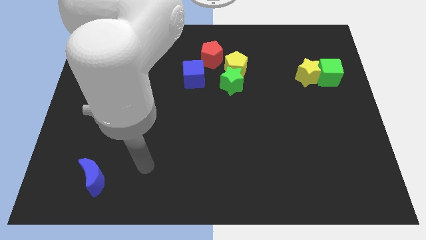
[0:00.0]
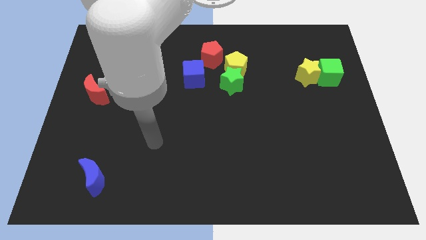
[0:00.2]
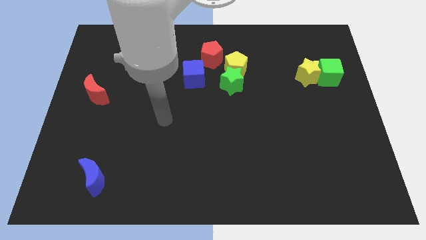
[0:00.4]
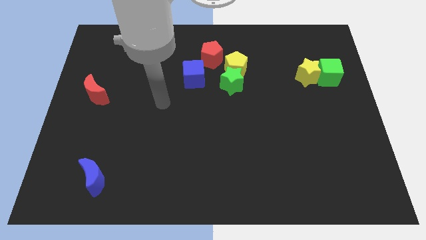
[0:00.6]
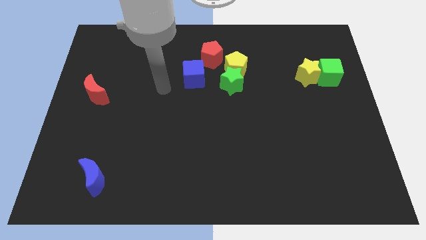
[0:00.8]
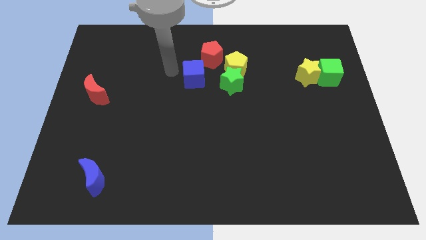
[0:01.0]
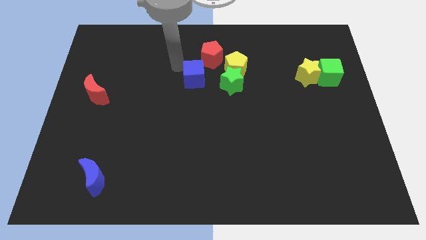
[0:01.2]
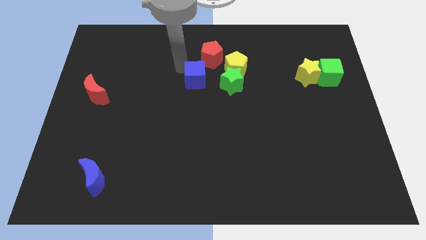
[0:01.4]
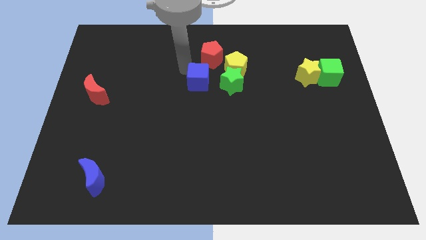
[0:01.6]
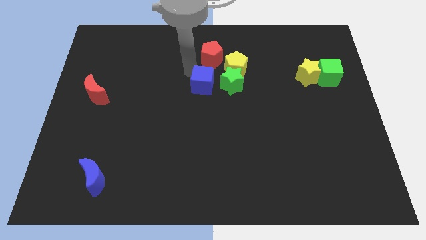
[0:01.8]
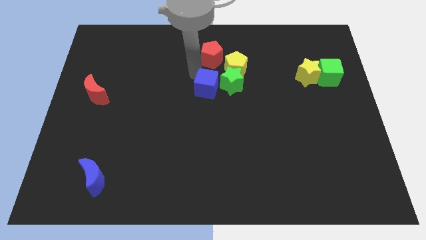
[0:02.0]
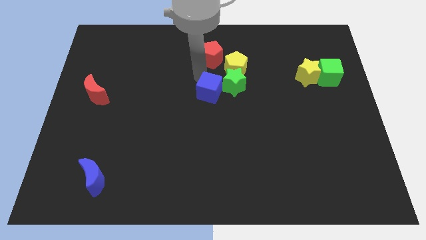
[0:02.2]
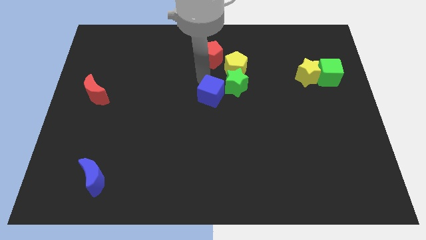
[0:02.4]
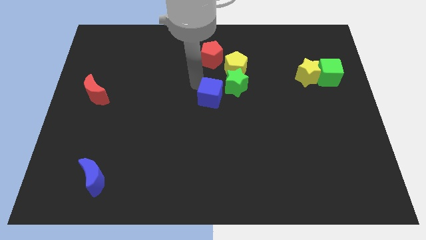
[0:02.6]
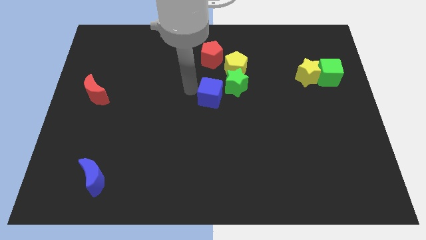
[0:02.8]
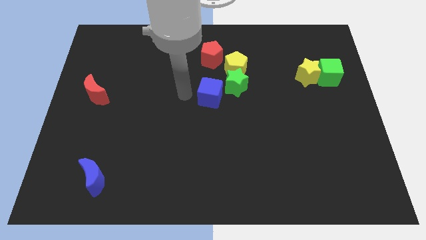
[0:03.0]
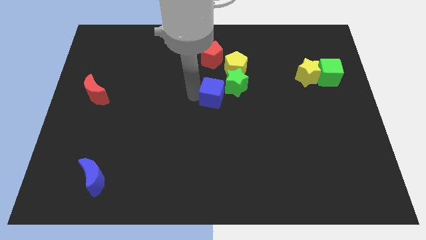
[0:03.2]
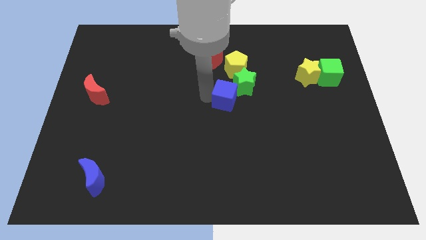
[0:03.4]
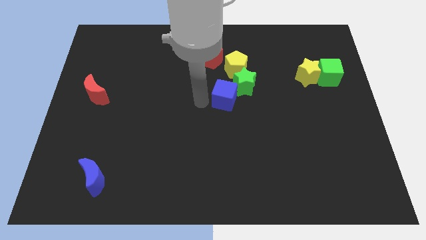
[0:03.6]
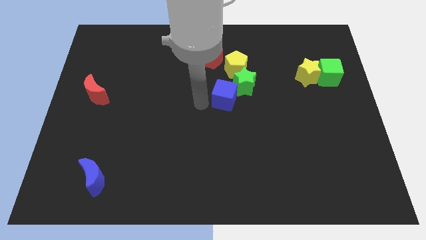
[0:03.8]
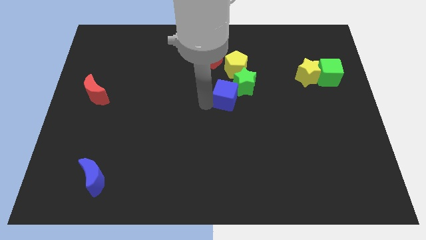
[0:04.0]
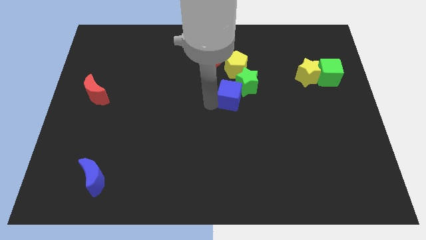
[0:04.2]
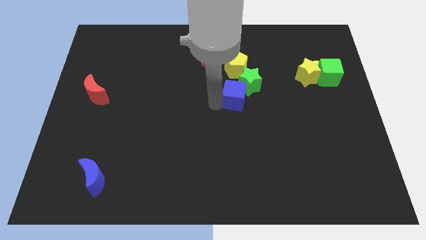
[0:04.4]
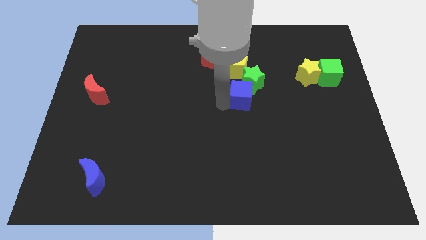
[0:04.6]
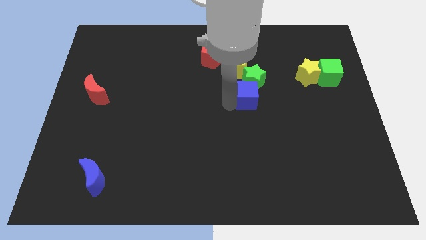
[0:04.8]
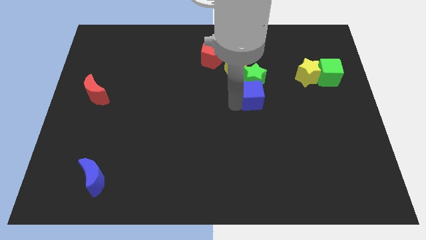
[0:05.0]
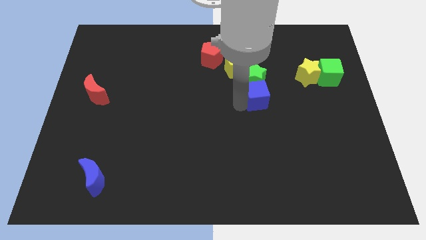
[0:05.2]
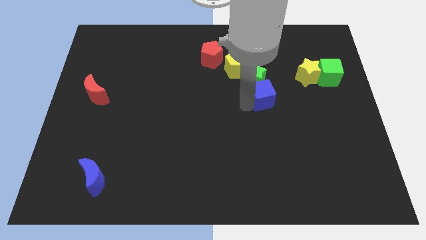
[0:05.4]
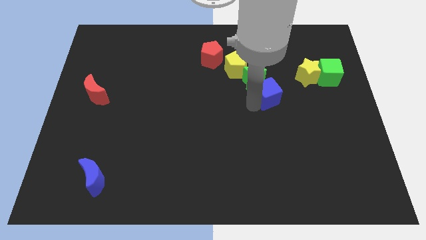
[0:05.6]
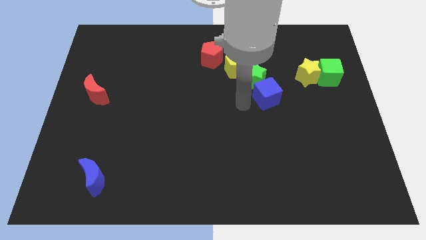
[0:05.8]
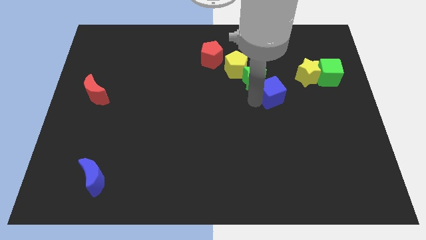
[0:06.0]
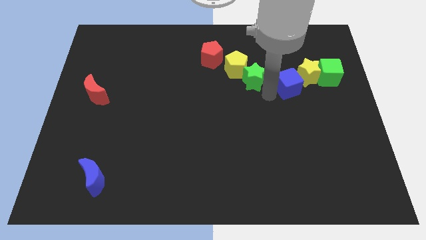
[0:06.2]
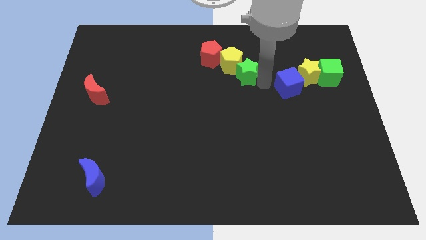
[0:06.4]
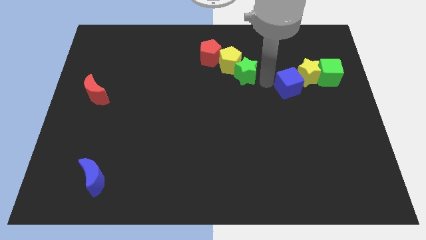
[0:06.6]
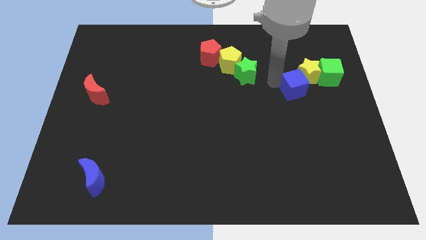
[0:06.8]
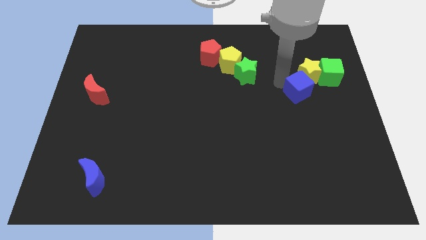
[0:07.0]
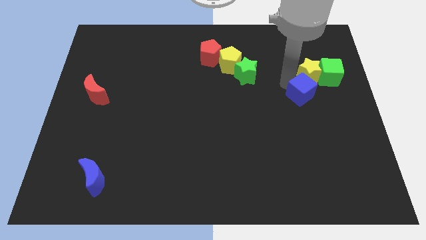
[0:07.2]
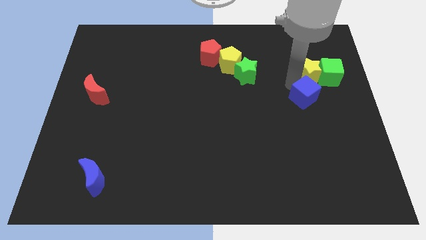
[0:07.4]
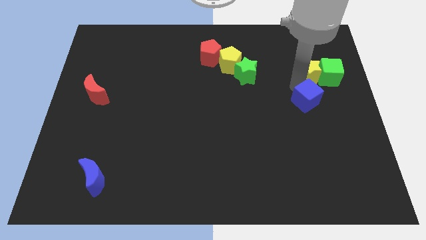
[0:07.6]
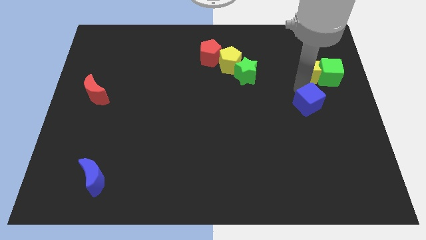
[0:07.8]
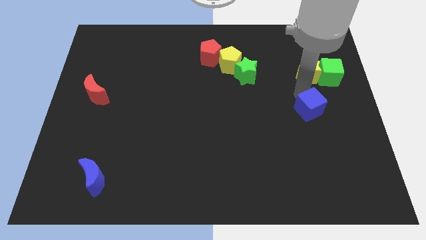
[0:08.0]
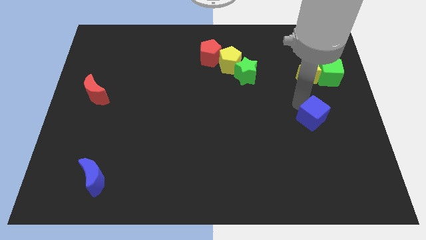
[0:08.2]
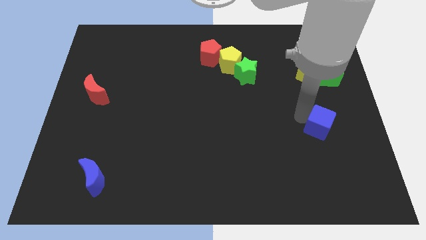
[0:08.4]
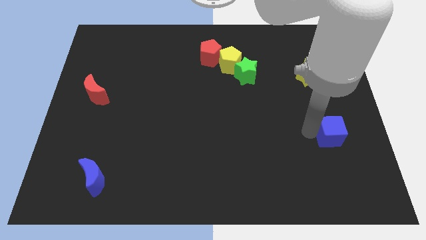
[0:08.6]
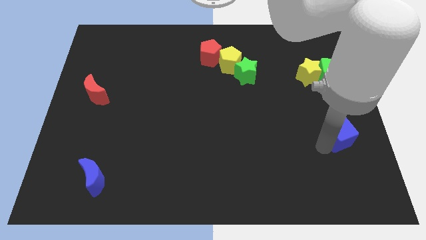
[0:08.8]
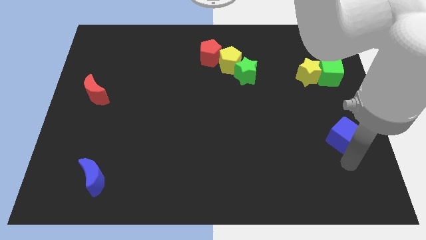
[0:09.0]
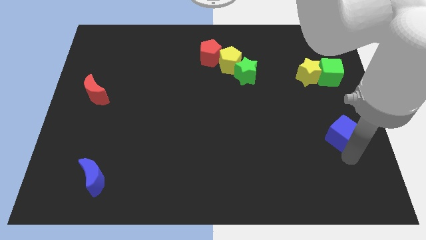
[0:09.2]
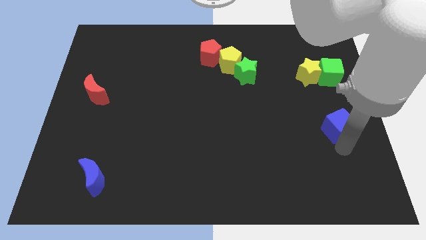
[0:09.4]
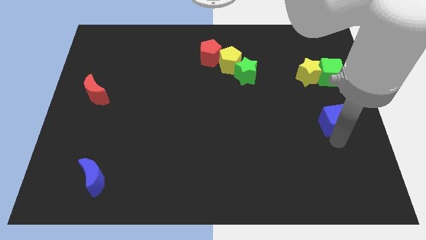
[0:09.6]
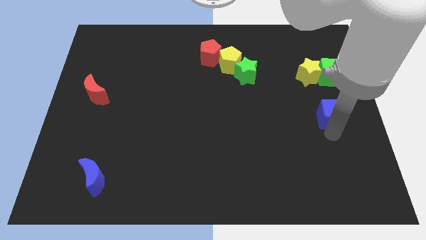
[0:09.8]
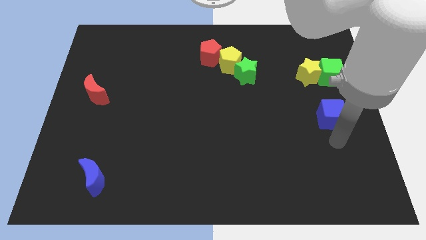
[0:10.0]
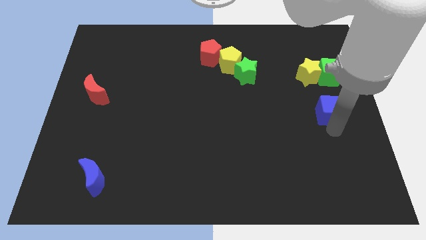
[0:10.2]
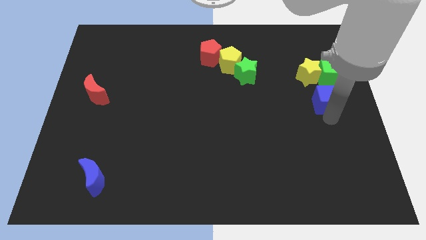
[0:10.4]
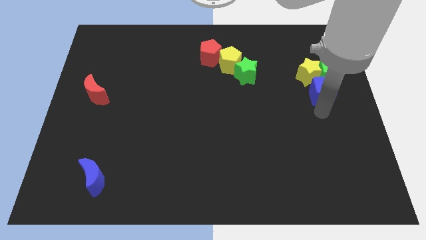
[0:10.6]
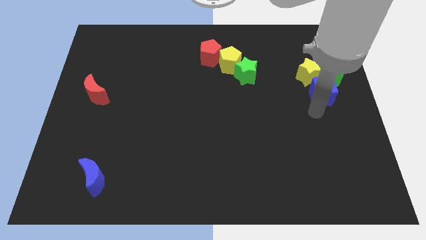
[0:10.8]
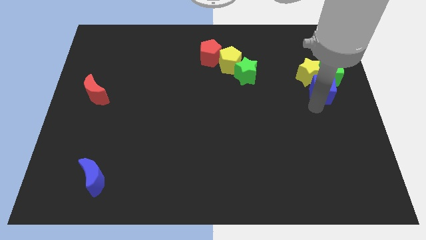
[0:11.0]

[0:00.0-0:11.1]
slide the blue cube towards the green cube
